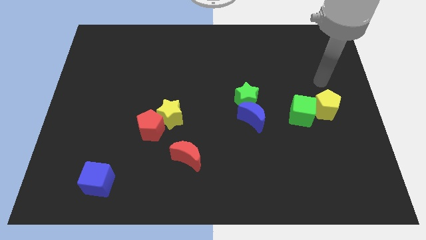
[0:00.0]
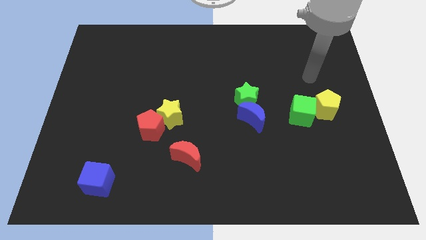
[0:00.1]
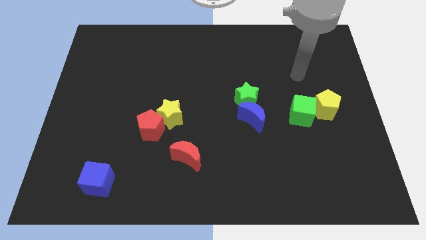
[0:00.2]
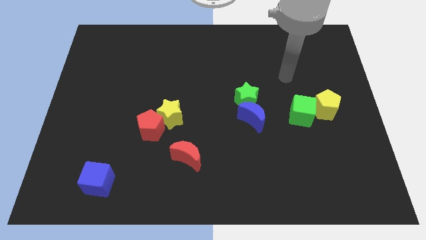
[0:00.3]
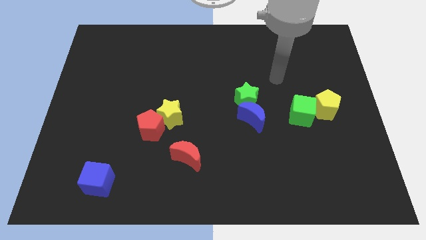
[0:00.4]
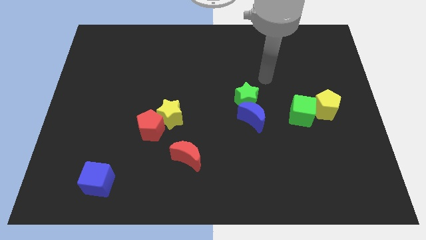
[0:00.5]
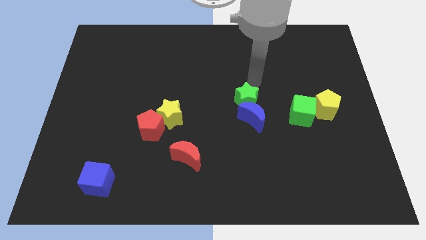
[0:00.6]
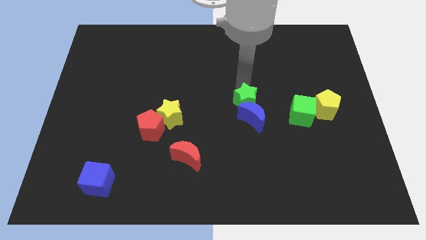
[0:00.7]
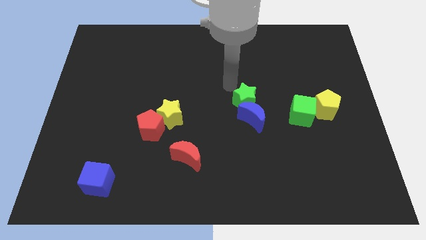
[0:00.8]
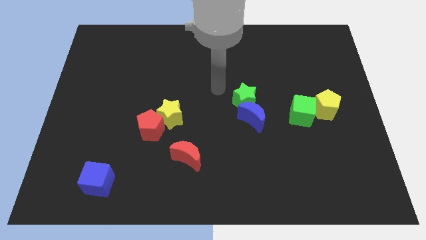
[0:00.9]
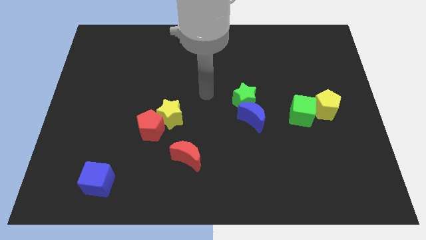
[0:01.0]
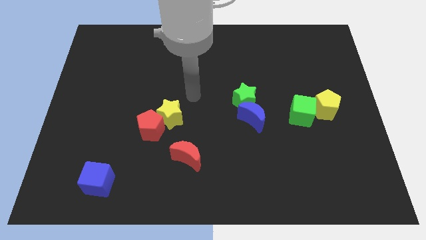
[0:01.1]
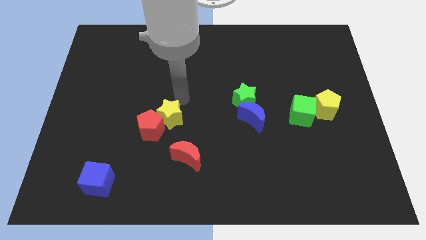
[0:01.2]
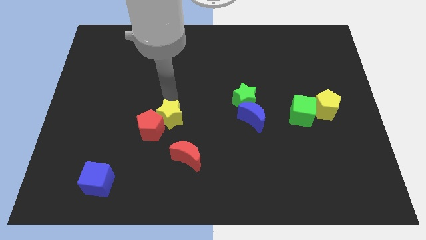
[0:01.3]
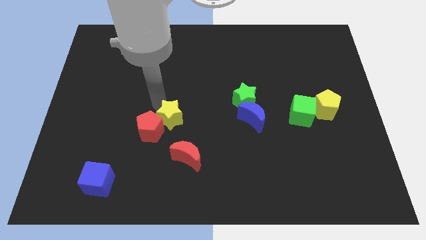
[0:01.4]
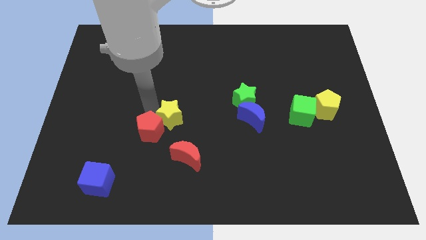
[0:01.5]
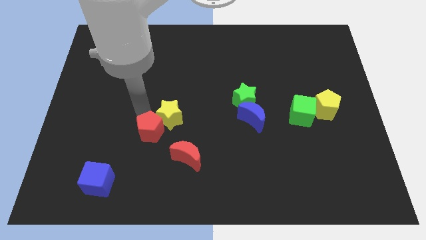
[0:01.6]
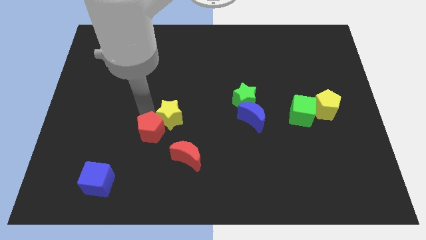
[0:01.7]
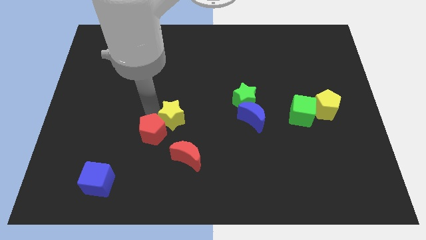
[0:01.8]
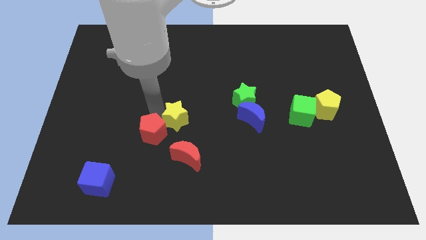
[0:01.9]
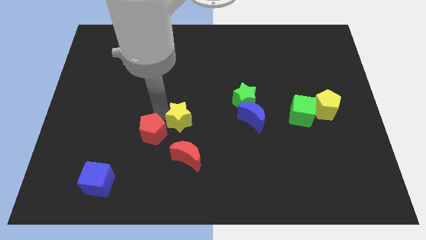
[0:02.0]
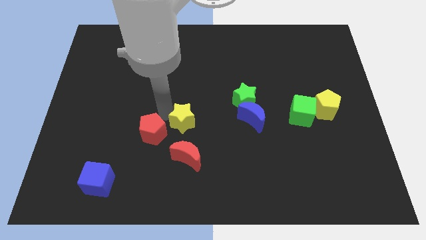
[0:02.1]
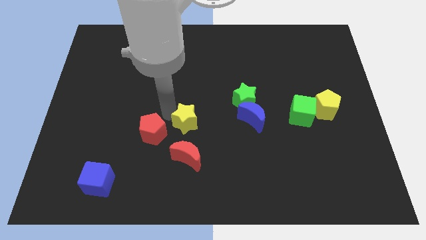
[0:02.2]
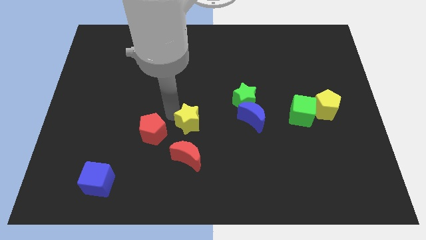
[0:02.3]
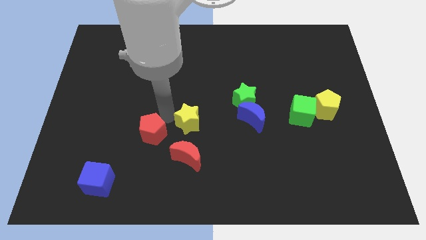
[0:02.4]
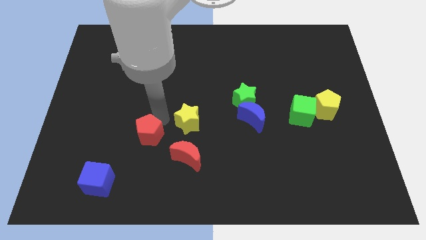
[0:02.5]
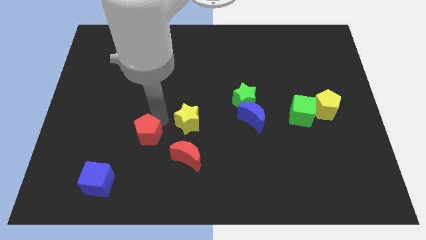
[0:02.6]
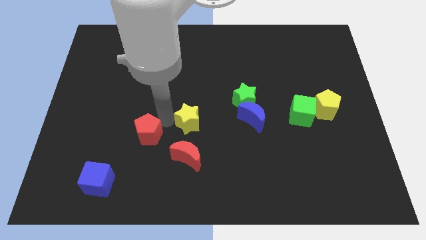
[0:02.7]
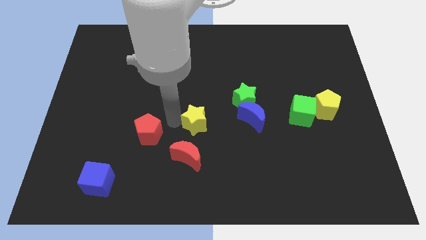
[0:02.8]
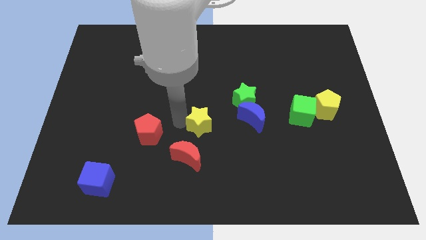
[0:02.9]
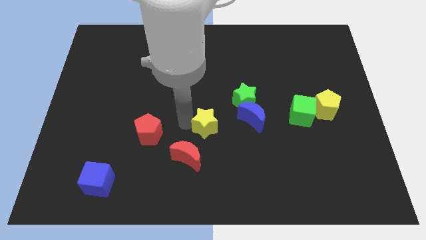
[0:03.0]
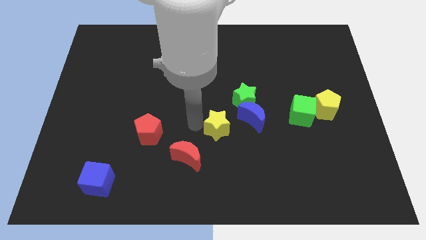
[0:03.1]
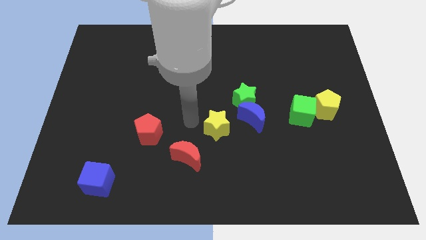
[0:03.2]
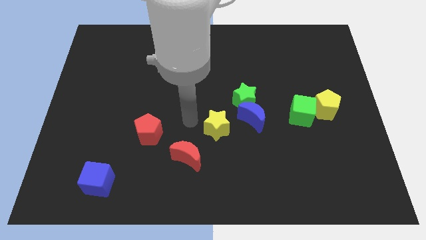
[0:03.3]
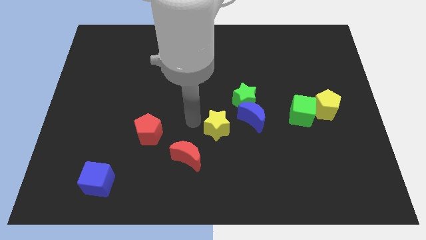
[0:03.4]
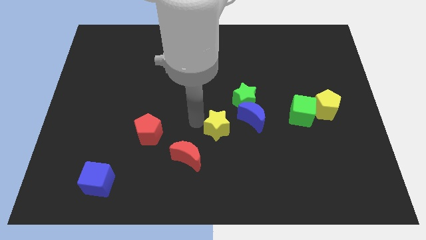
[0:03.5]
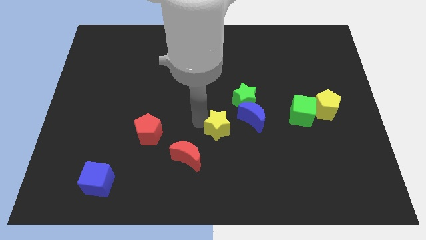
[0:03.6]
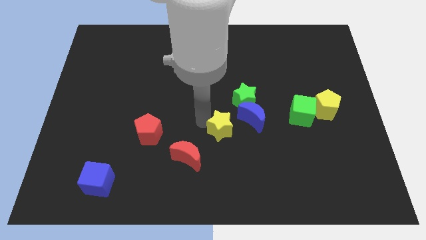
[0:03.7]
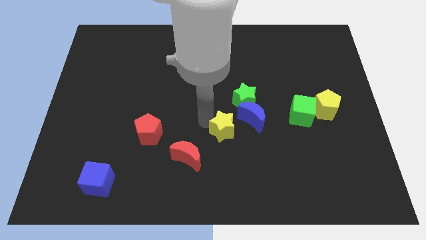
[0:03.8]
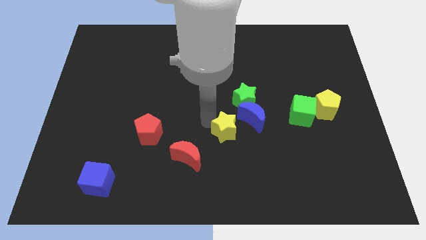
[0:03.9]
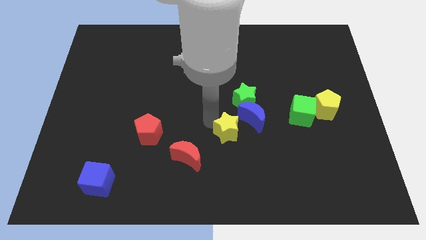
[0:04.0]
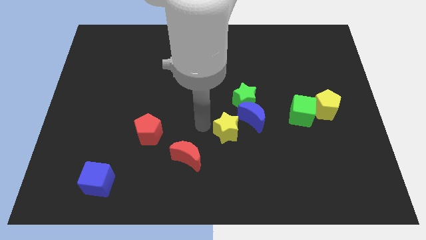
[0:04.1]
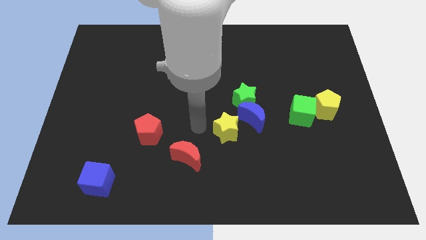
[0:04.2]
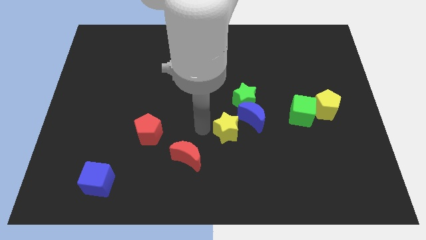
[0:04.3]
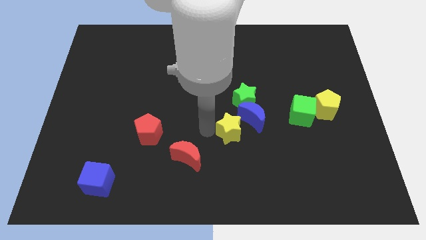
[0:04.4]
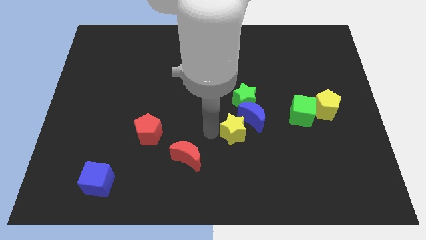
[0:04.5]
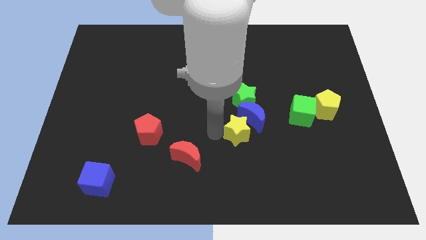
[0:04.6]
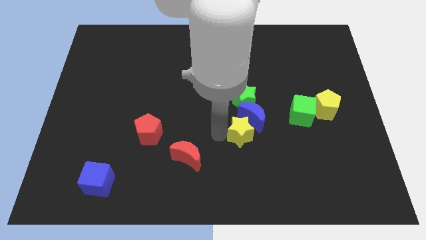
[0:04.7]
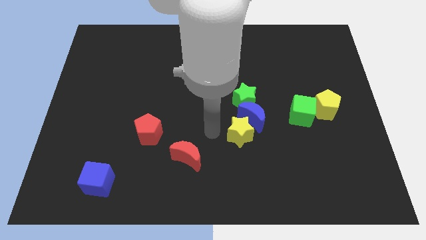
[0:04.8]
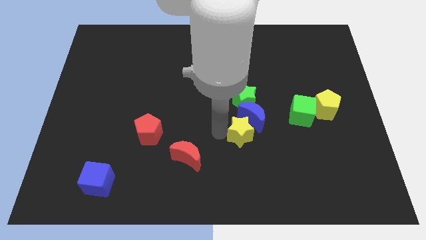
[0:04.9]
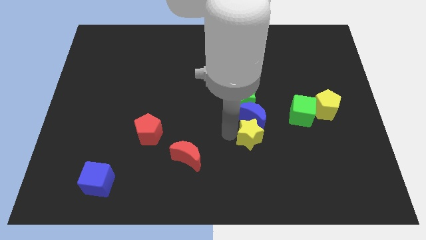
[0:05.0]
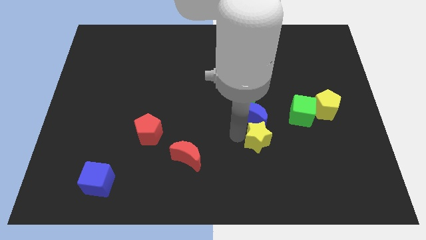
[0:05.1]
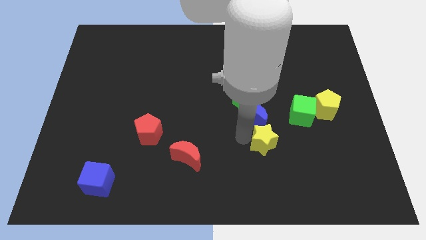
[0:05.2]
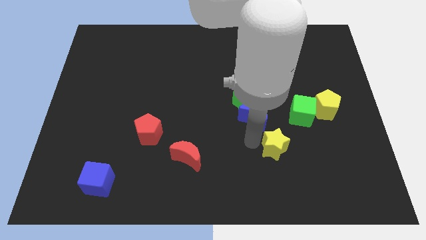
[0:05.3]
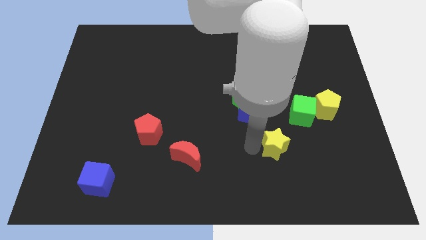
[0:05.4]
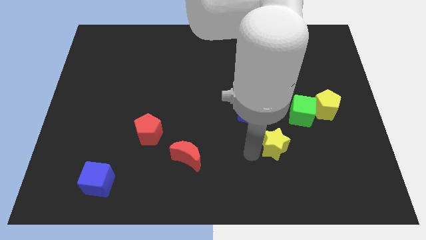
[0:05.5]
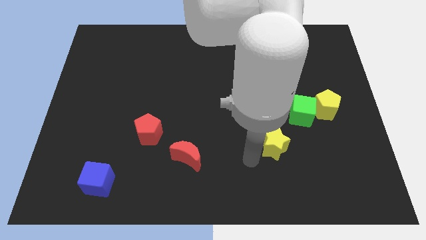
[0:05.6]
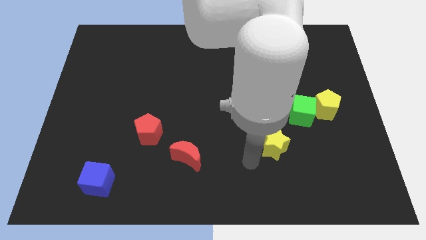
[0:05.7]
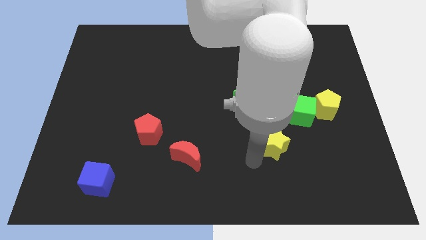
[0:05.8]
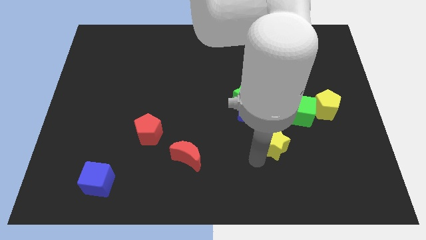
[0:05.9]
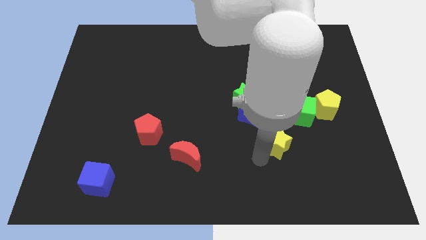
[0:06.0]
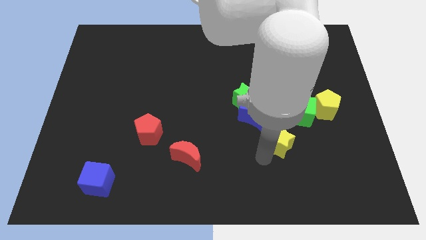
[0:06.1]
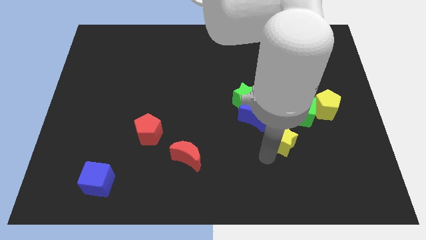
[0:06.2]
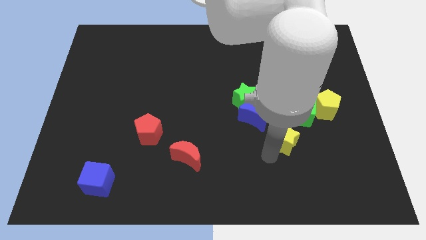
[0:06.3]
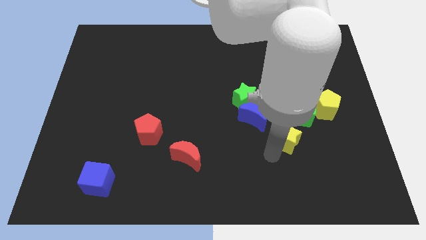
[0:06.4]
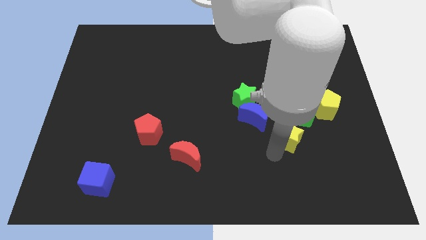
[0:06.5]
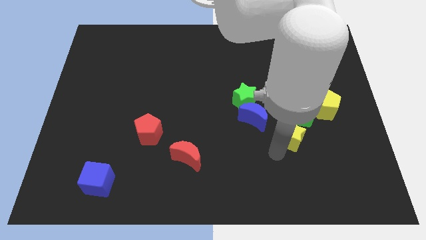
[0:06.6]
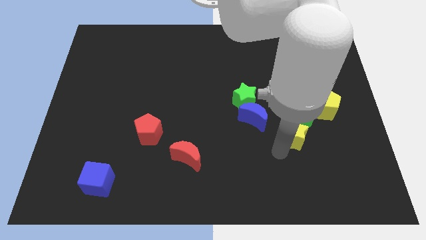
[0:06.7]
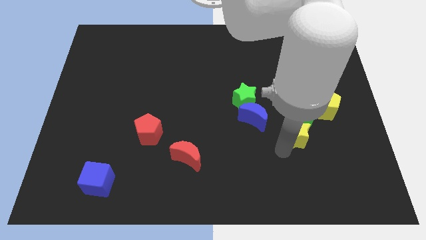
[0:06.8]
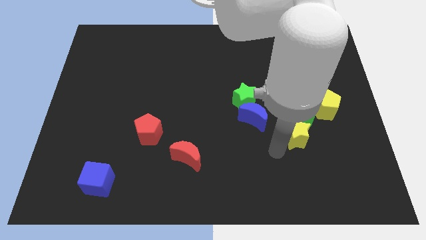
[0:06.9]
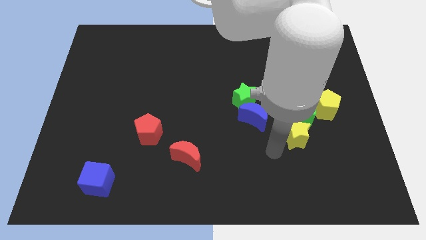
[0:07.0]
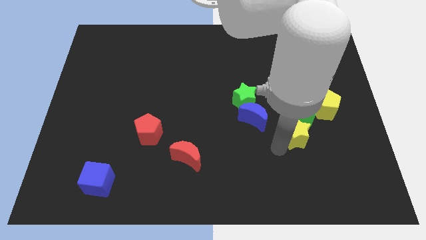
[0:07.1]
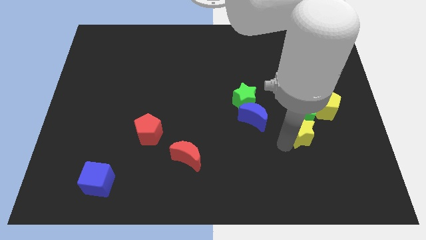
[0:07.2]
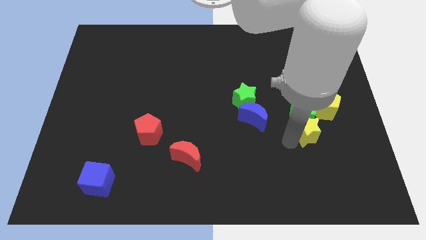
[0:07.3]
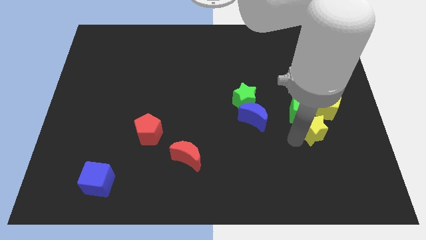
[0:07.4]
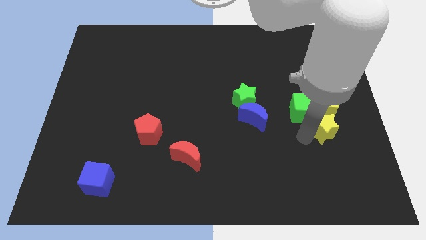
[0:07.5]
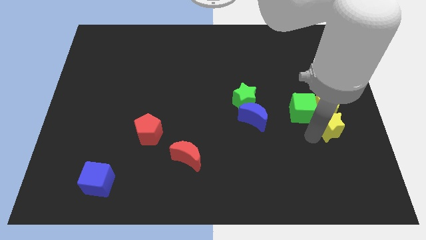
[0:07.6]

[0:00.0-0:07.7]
push the yellow star close to the yellow pentagon
